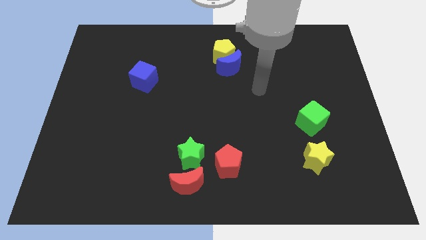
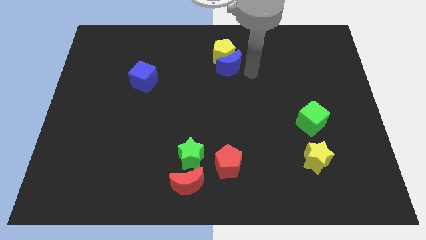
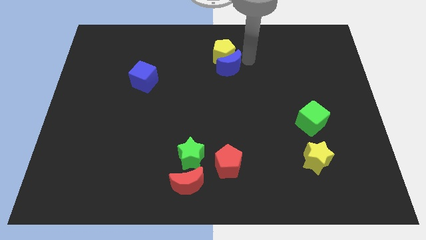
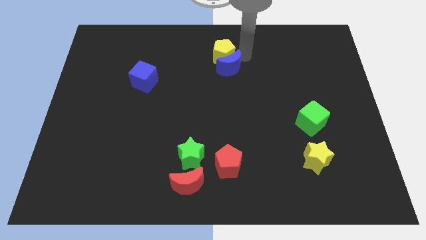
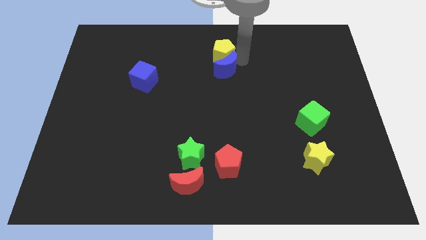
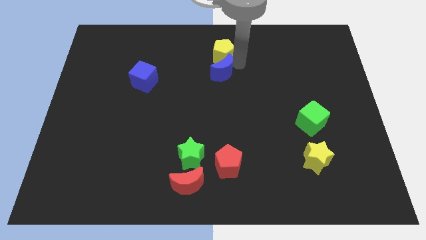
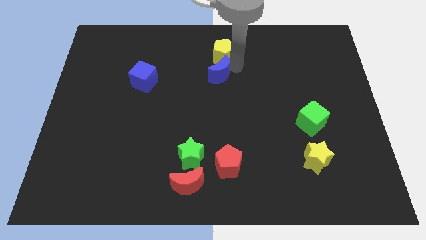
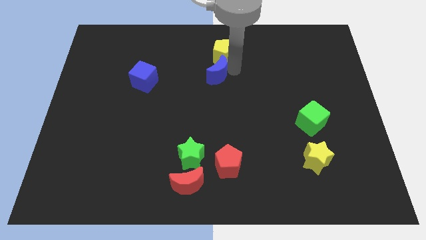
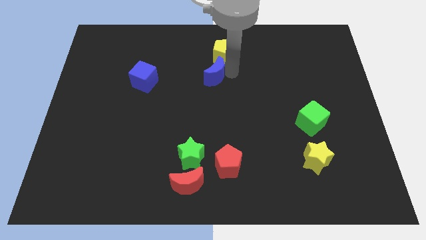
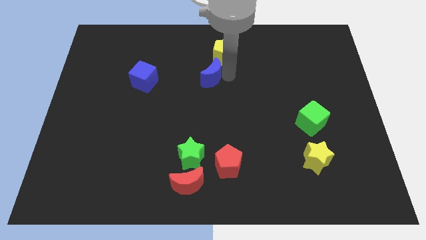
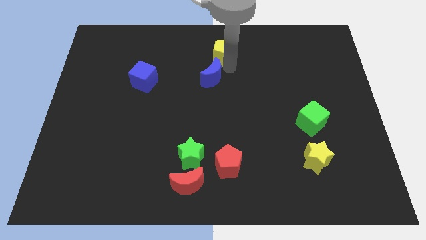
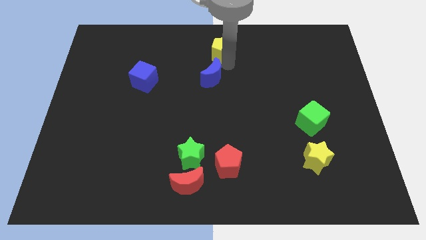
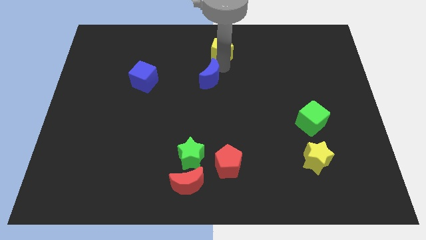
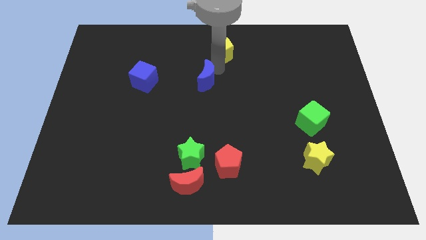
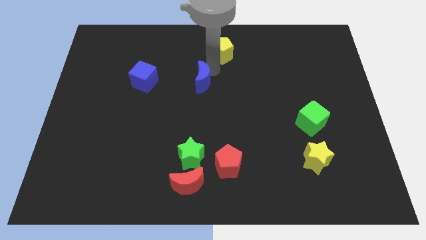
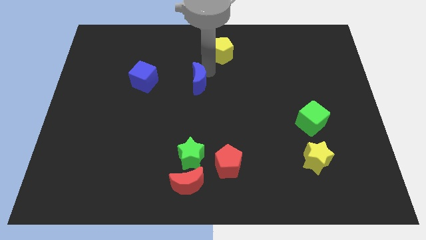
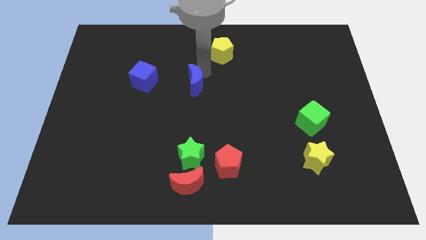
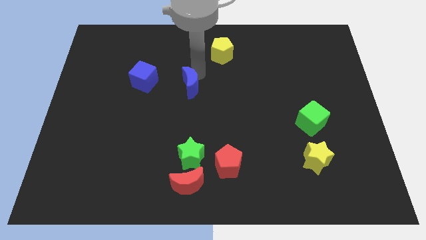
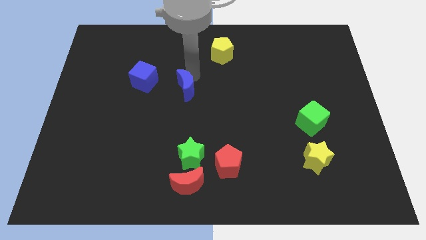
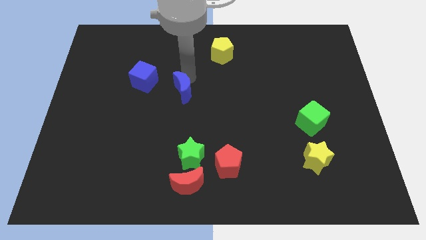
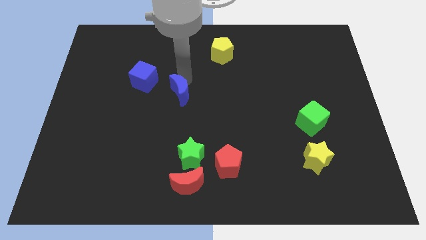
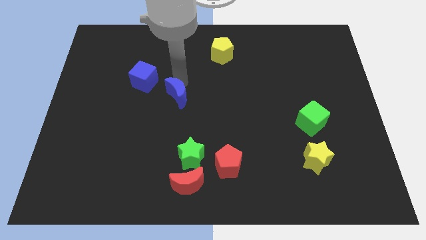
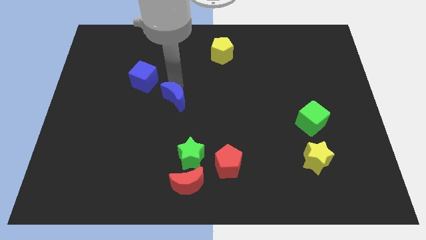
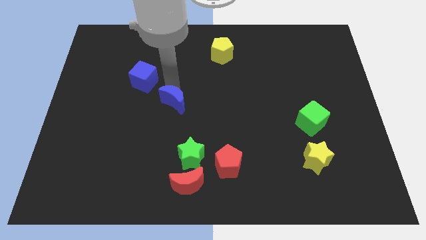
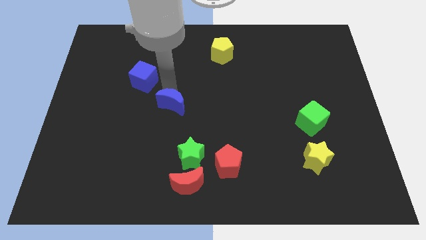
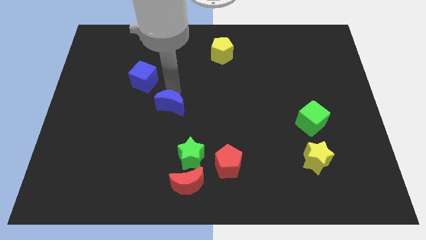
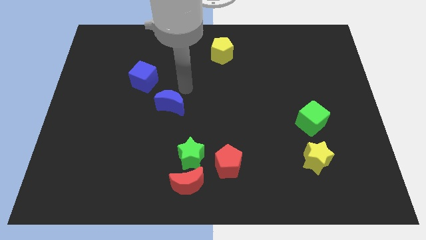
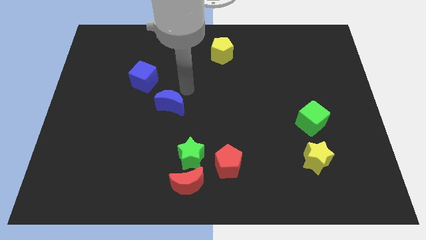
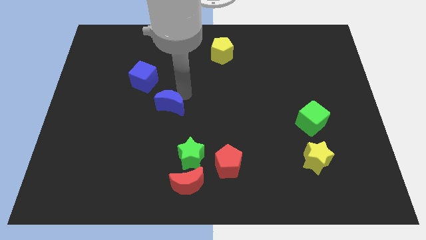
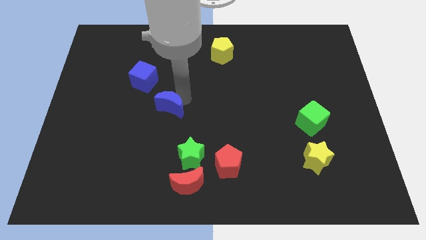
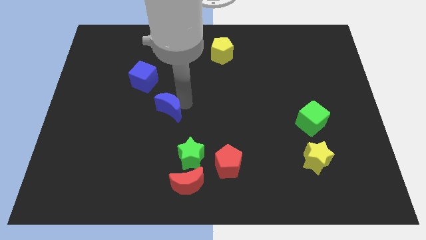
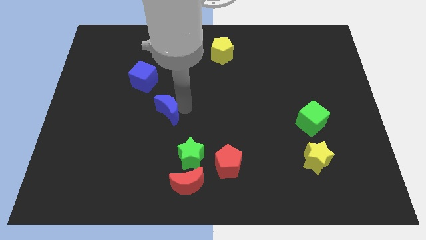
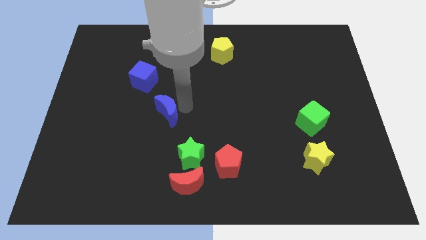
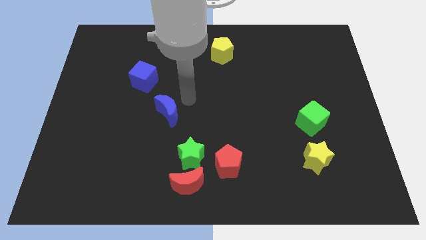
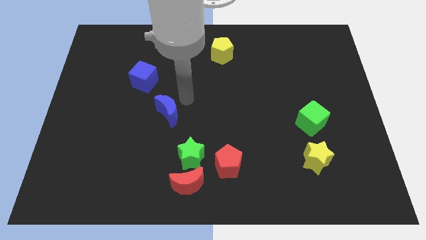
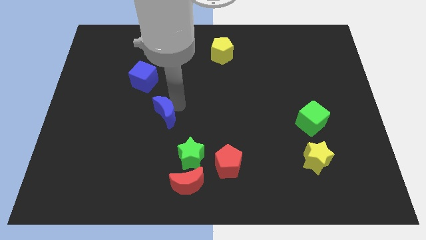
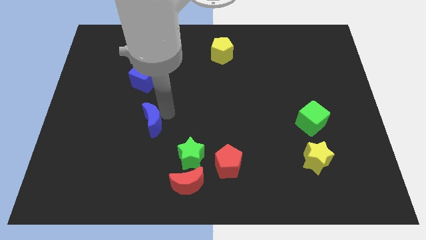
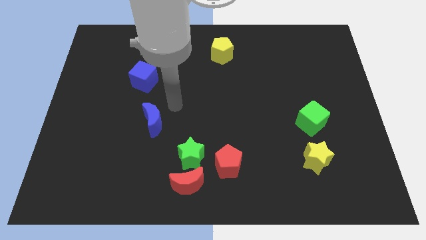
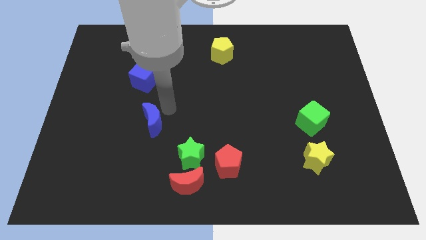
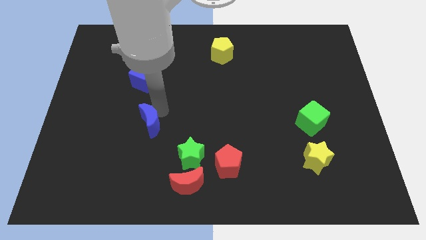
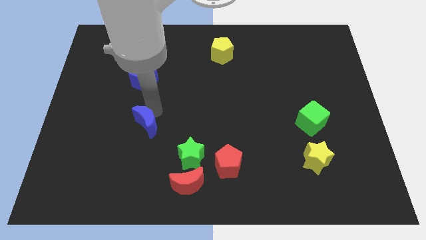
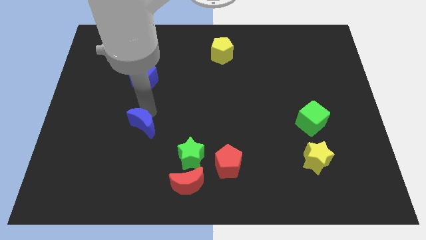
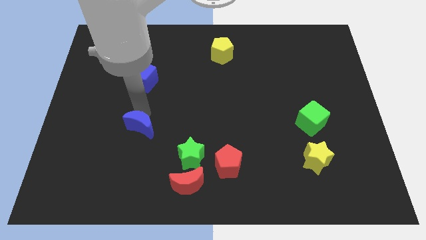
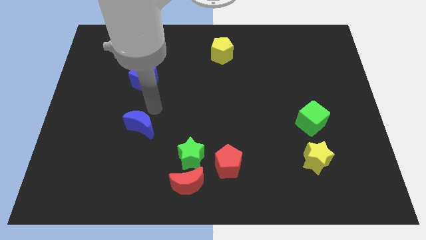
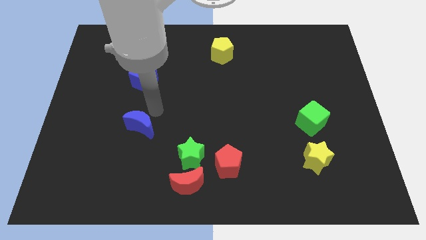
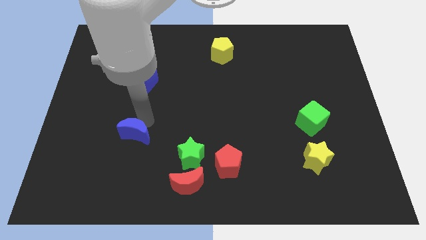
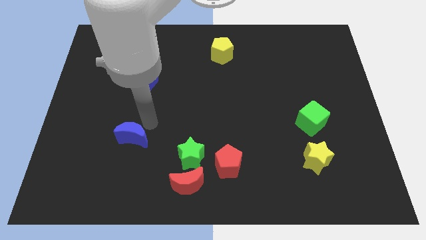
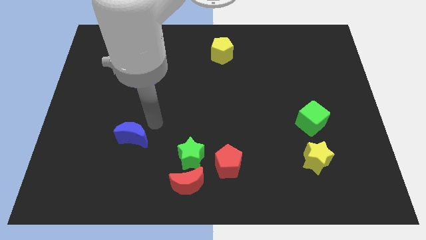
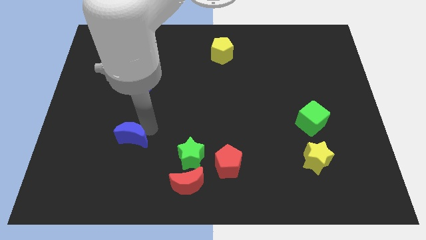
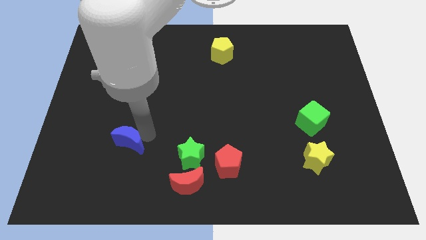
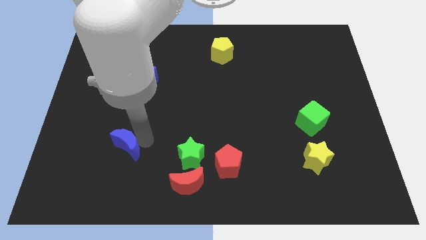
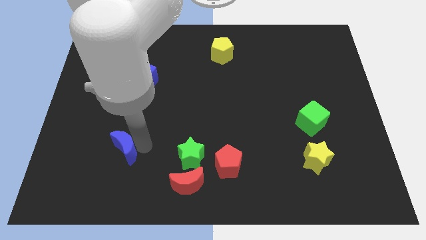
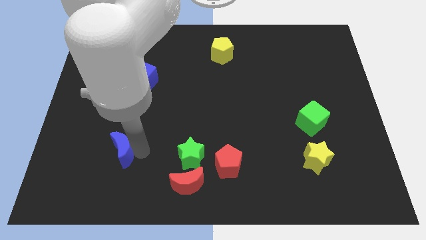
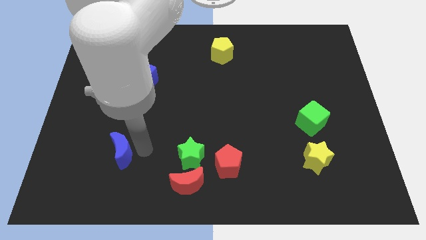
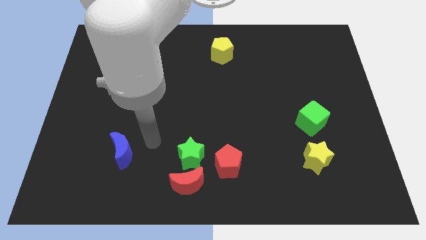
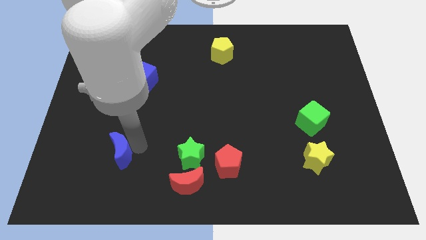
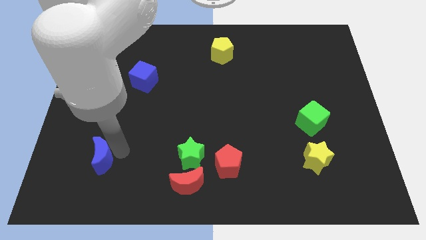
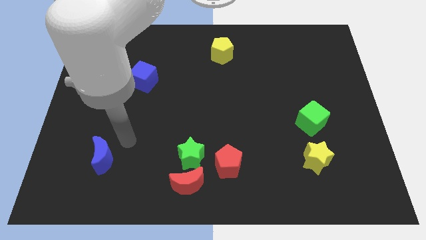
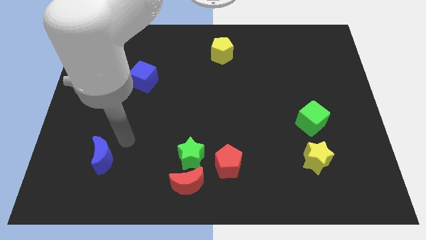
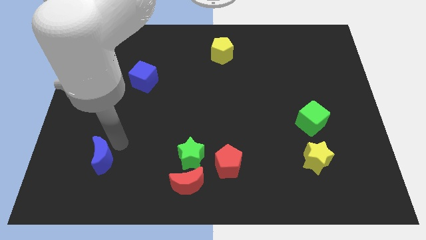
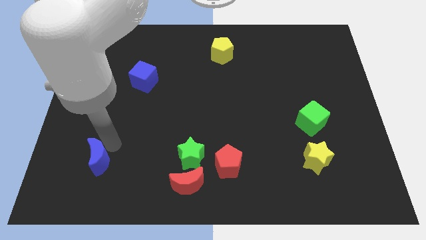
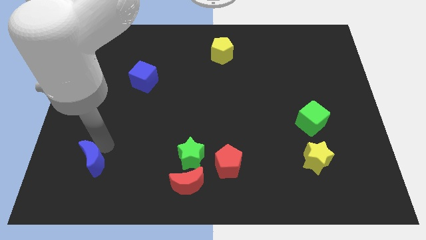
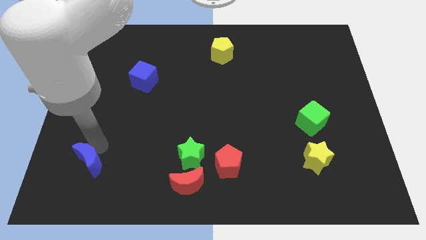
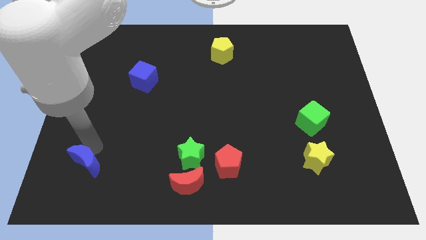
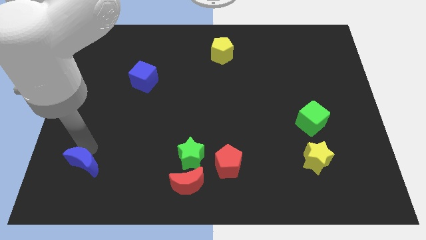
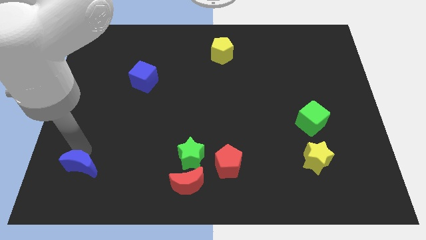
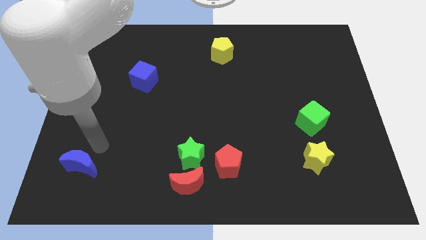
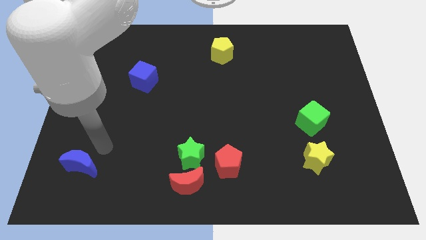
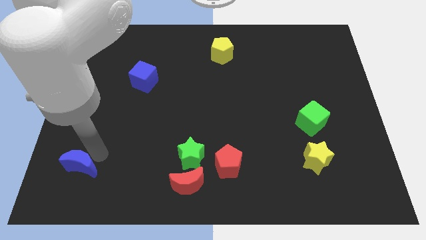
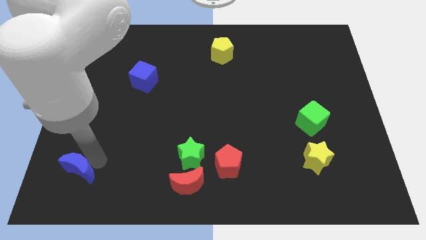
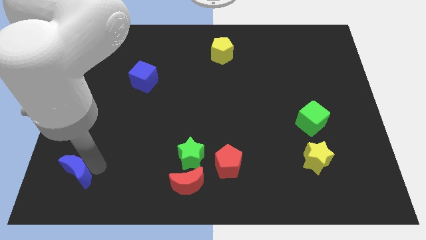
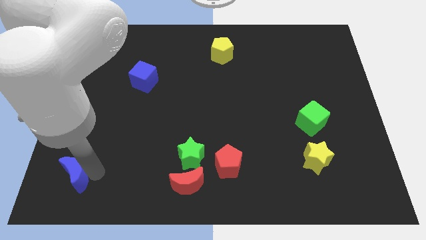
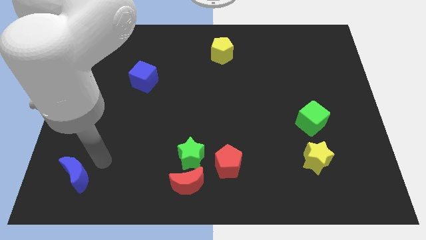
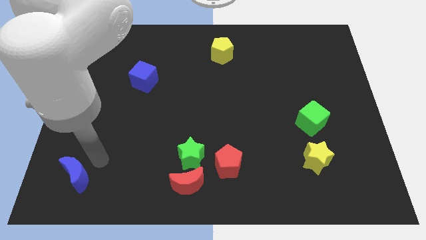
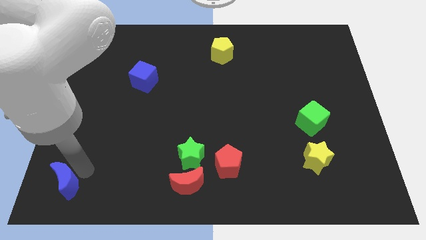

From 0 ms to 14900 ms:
put the blue moon to the bottom left of the board

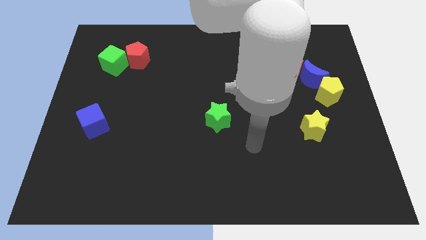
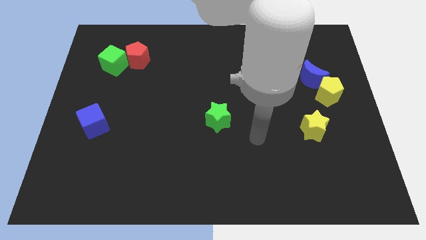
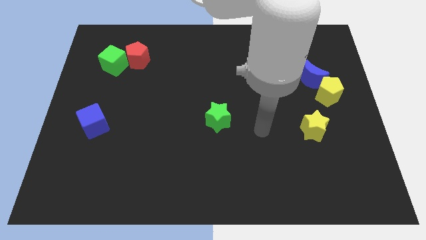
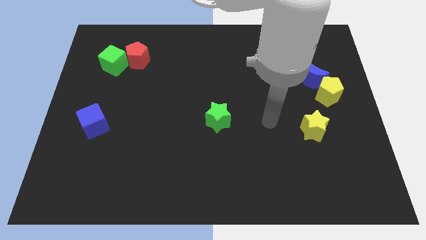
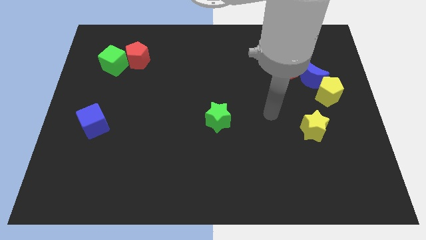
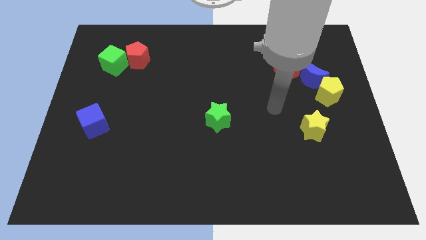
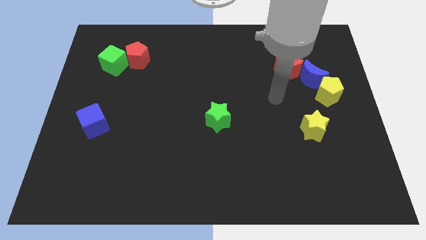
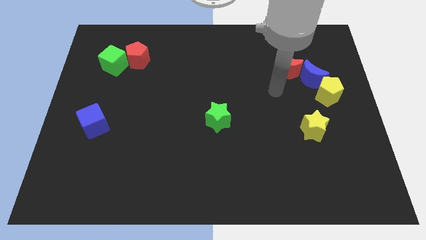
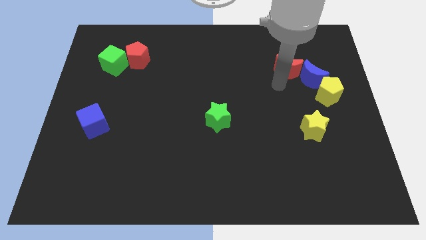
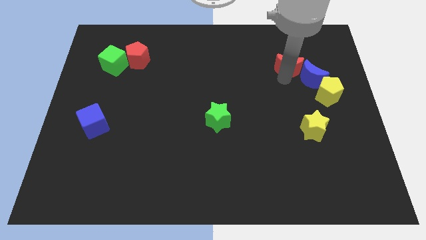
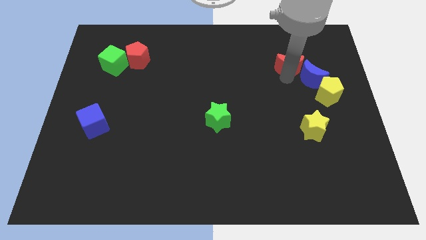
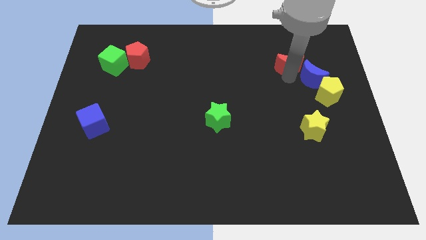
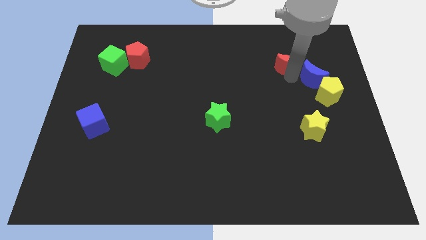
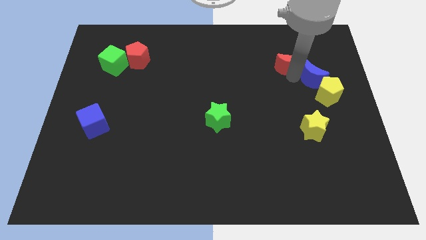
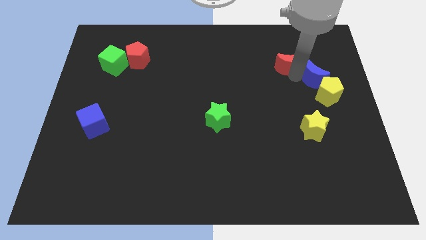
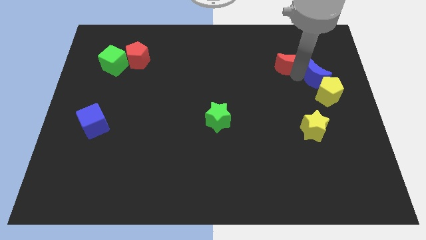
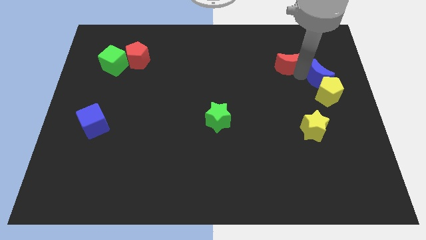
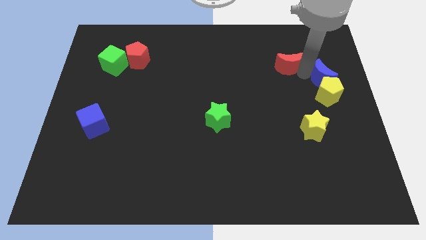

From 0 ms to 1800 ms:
push the blue moon to the right side
